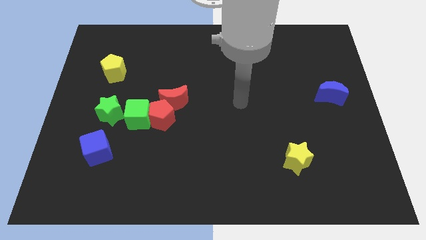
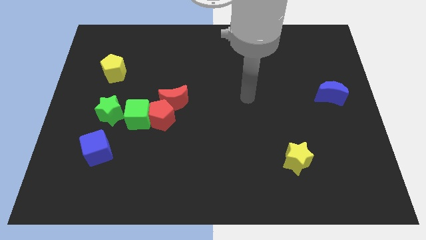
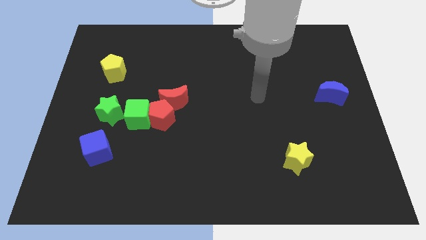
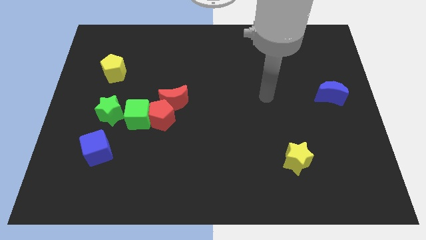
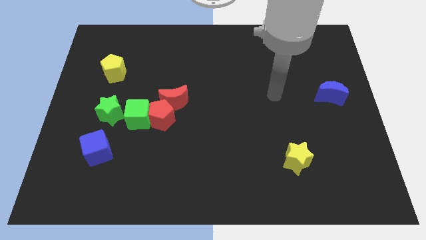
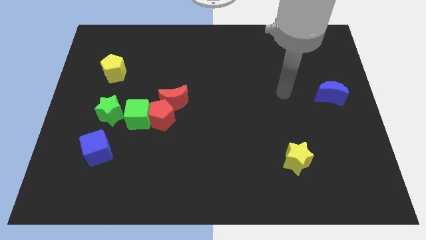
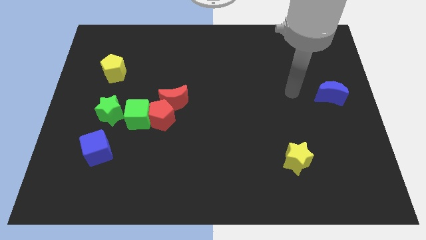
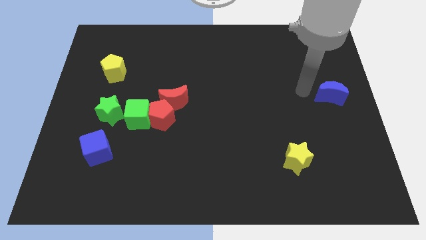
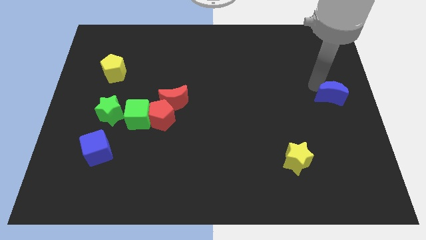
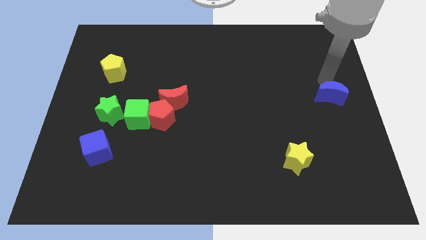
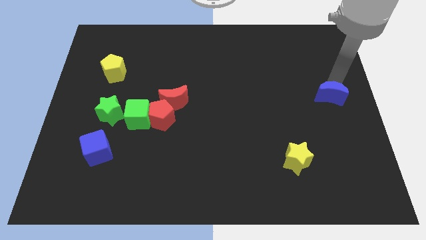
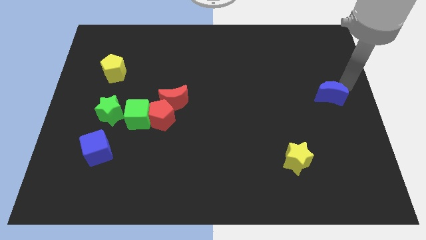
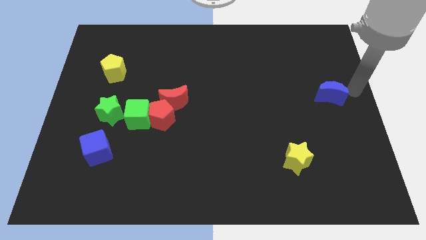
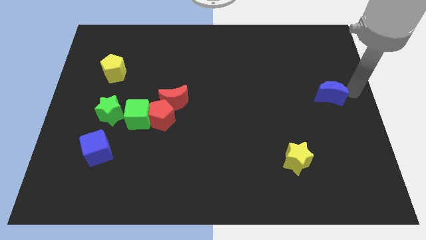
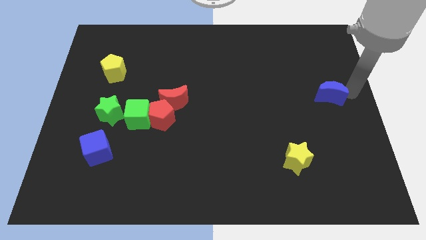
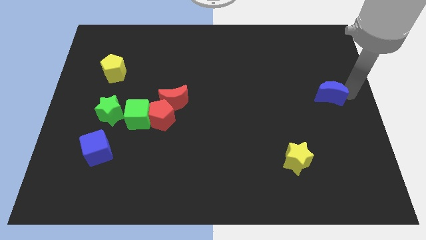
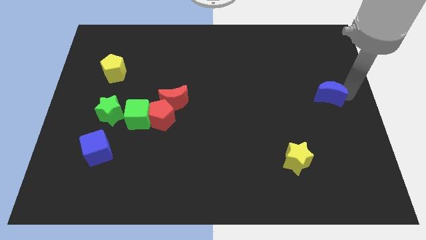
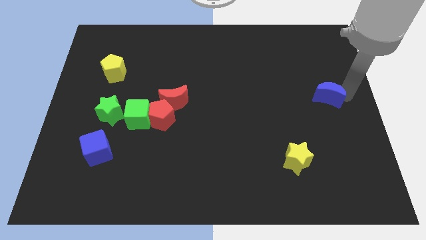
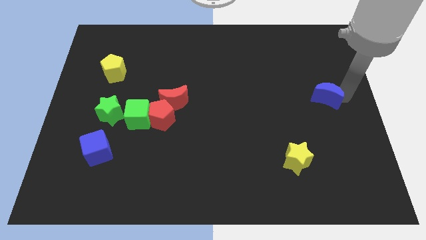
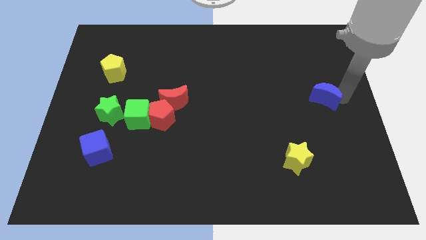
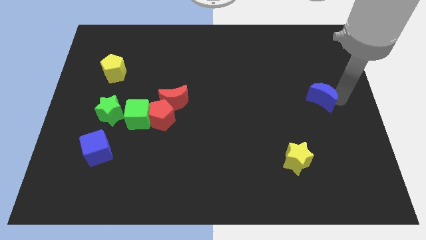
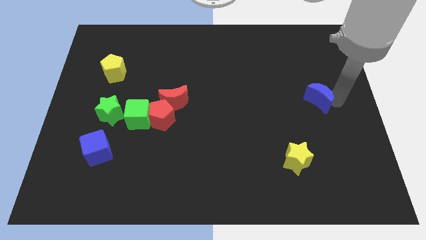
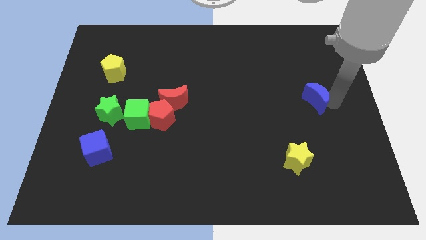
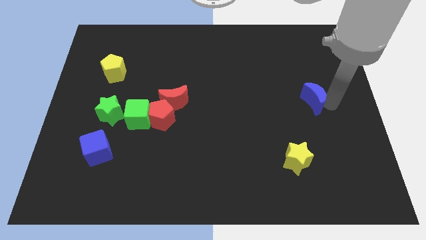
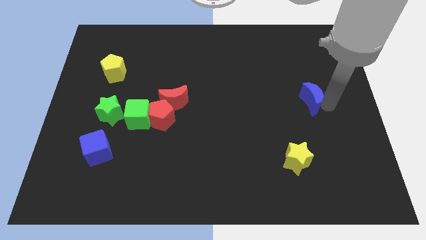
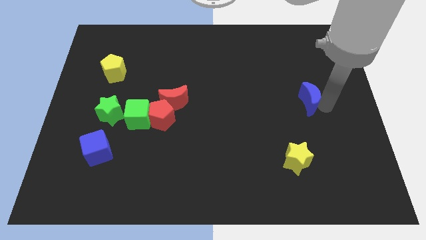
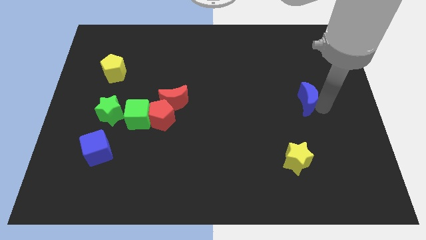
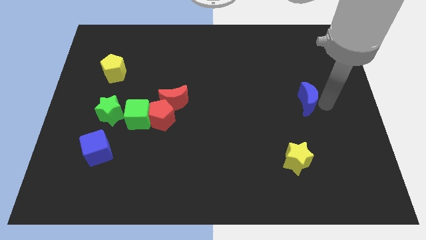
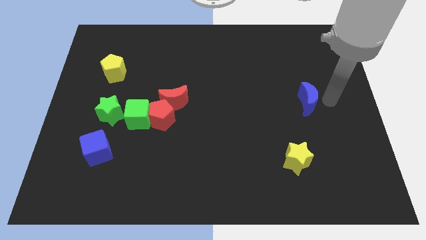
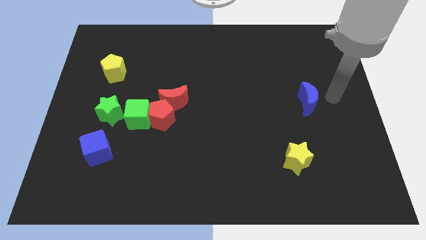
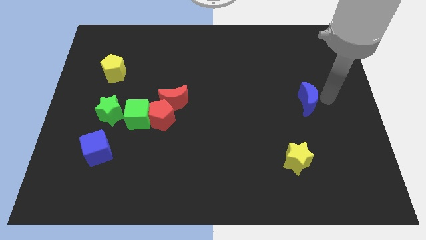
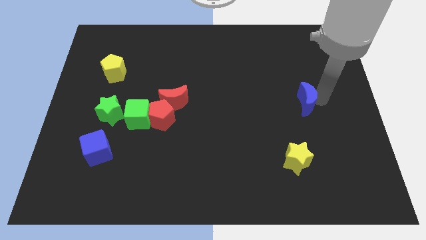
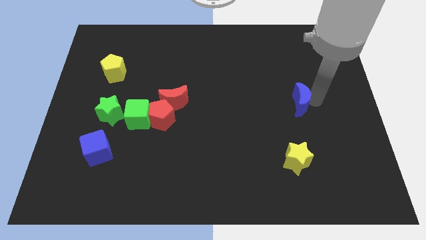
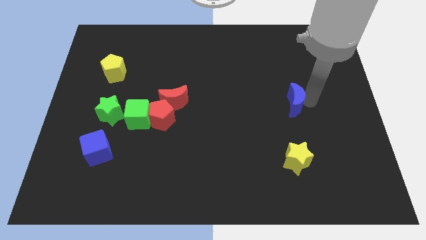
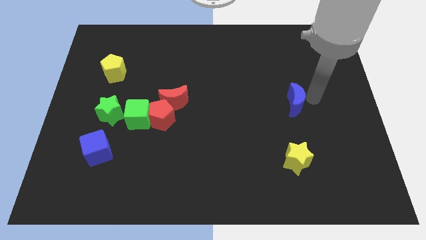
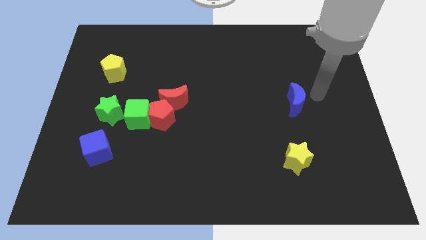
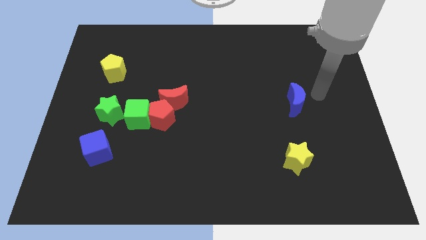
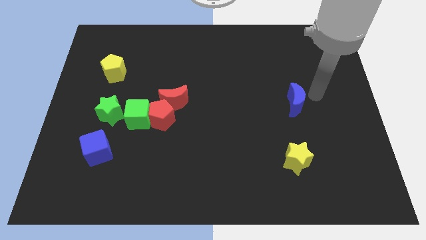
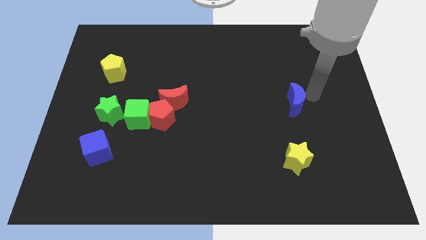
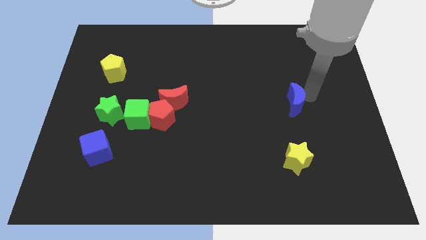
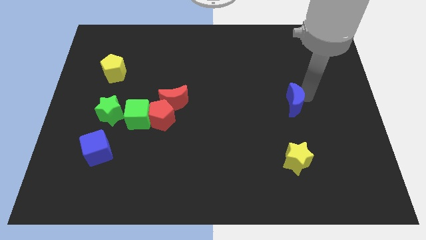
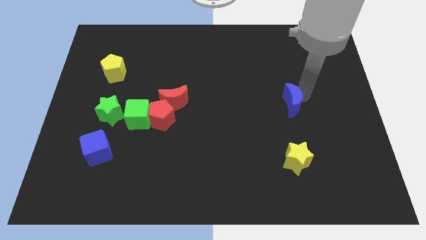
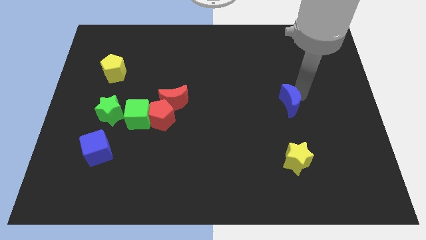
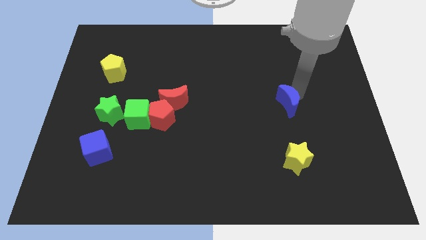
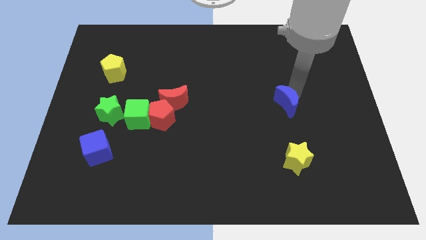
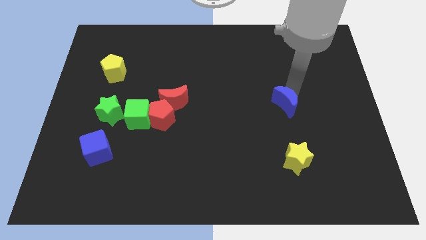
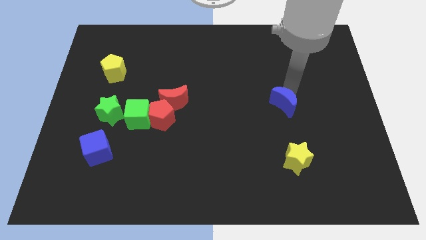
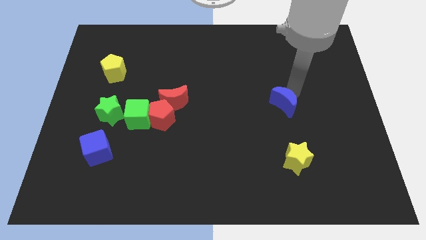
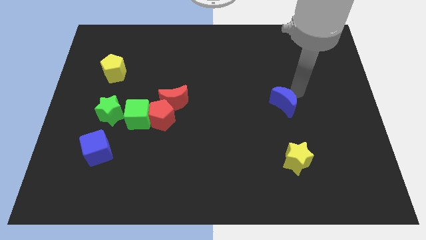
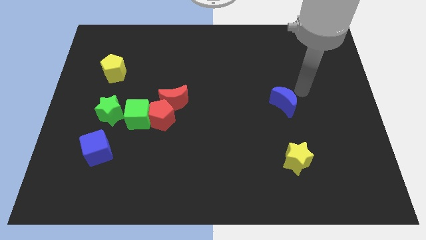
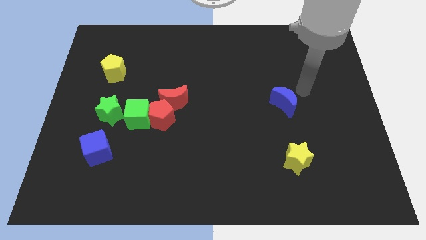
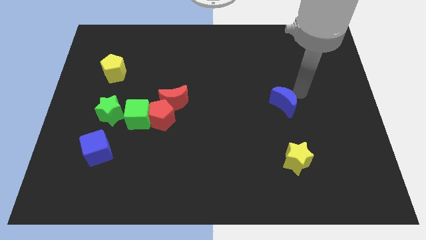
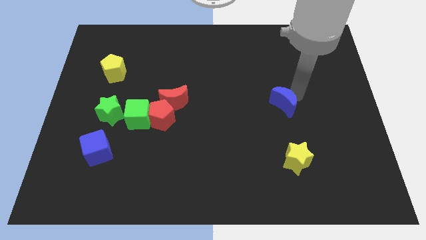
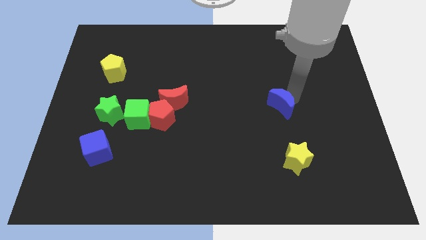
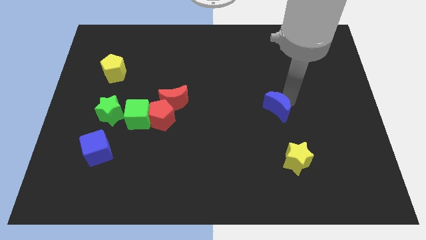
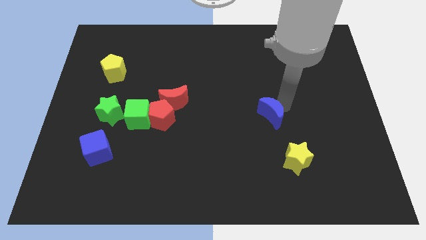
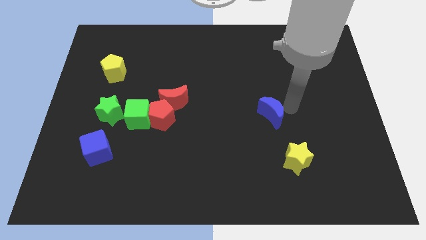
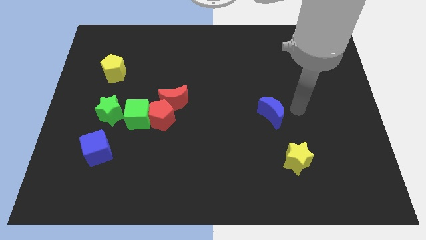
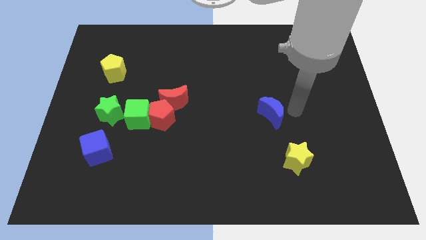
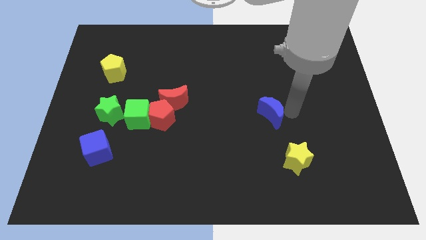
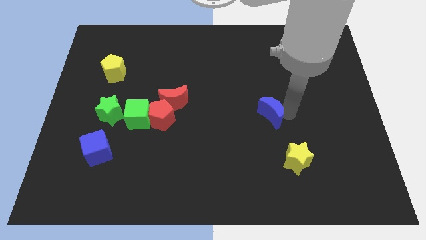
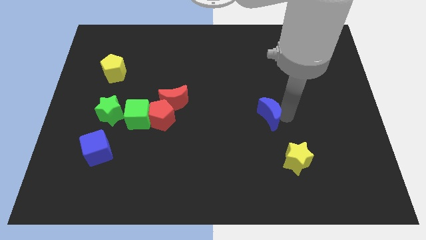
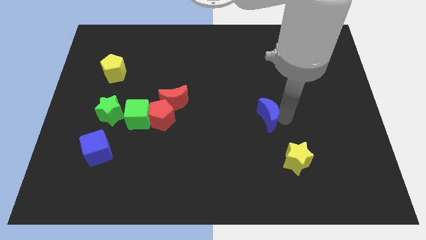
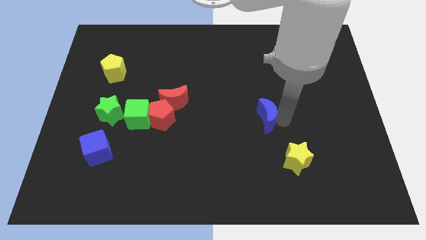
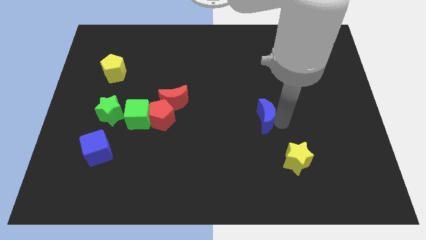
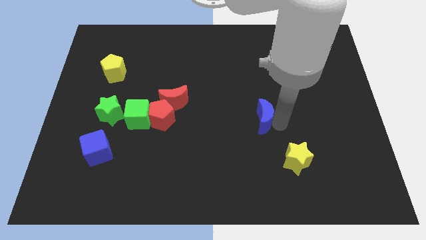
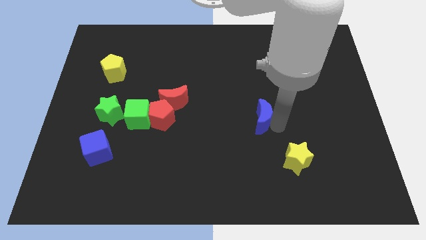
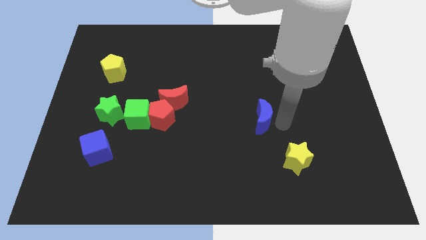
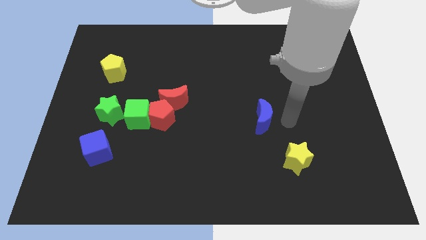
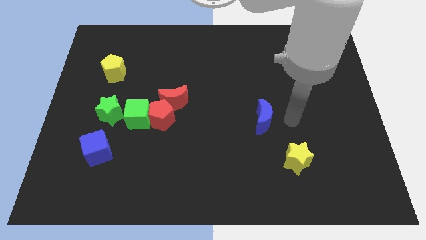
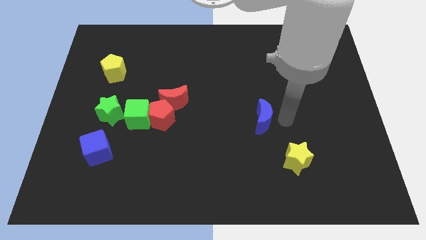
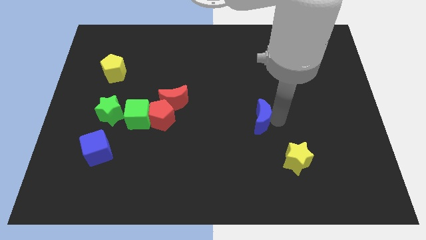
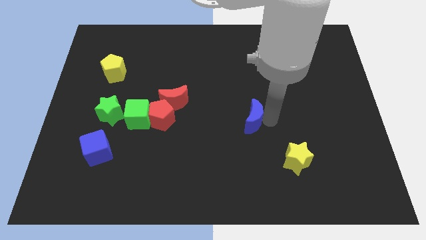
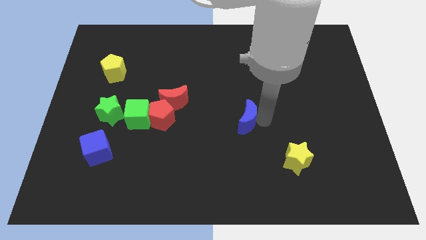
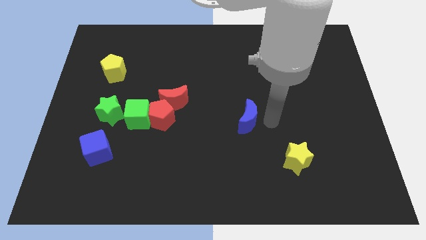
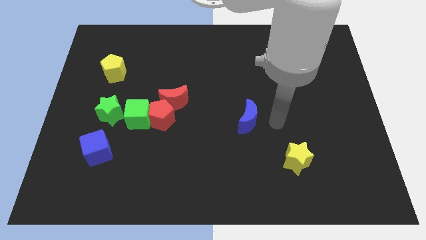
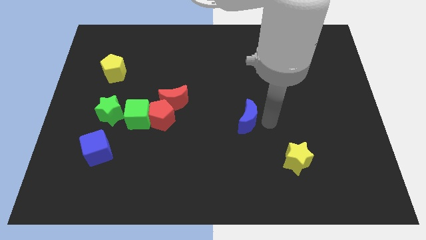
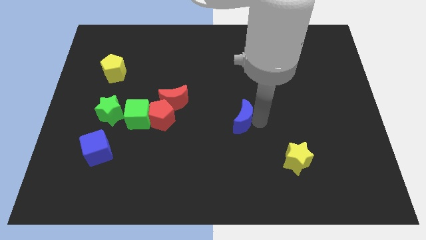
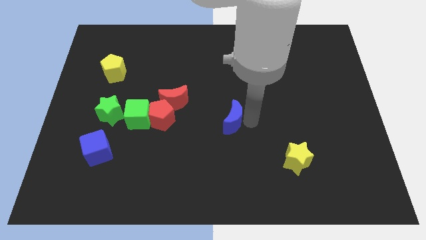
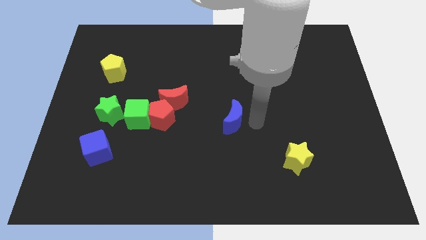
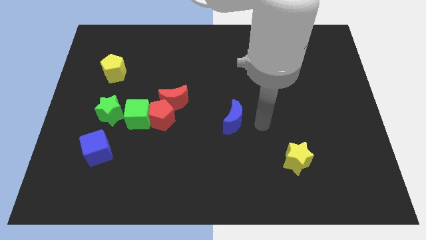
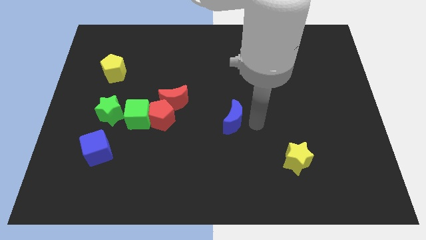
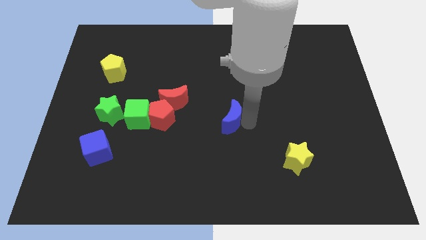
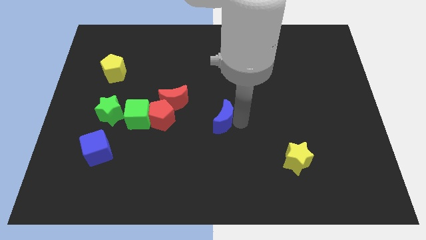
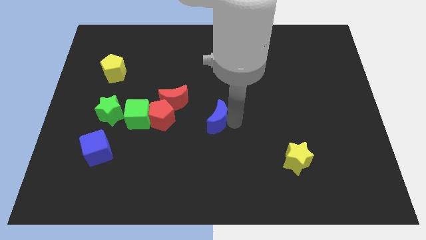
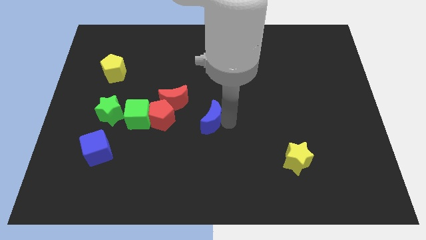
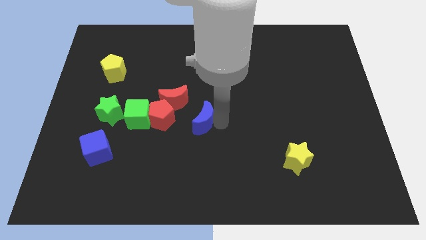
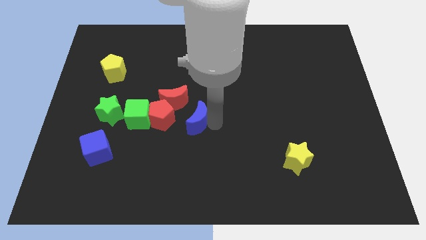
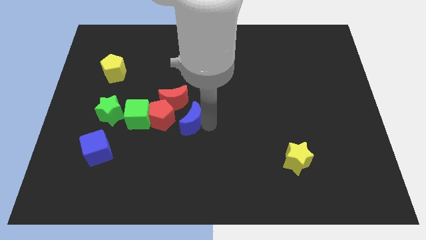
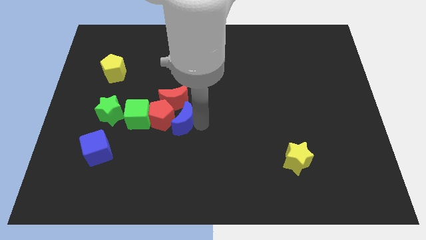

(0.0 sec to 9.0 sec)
push the blue moon towards the red pentagon
